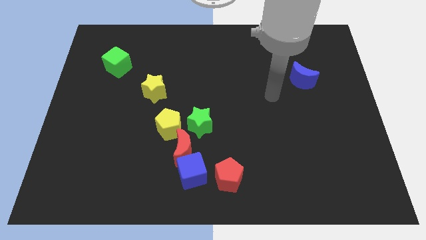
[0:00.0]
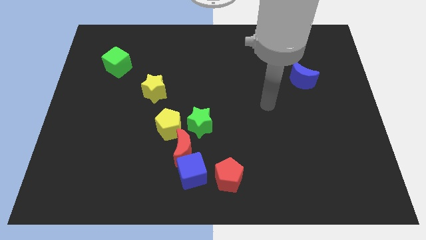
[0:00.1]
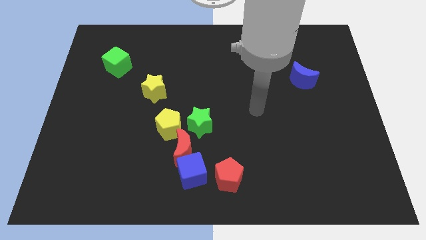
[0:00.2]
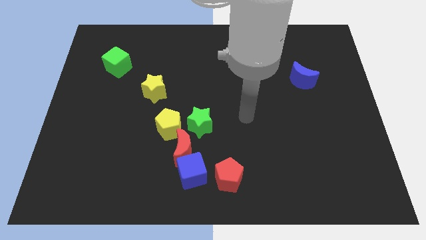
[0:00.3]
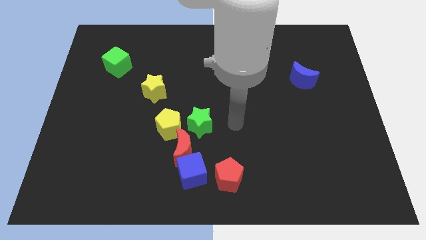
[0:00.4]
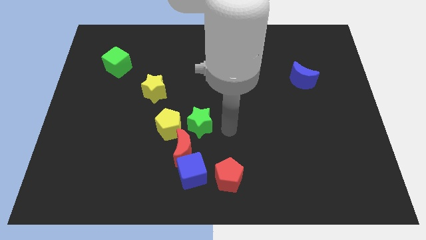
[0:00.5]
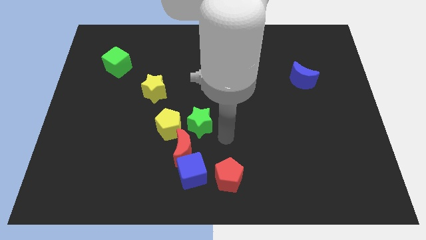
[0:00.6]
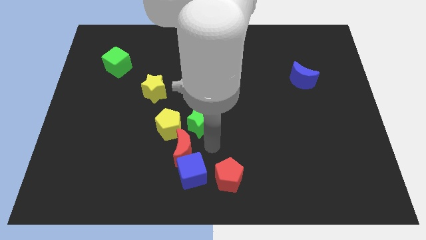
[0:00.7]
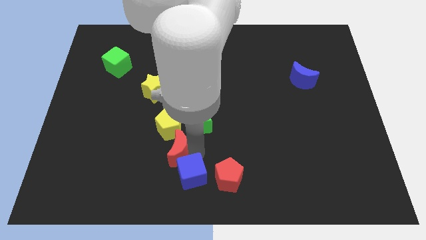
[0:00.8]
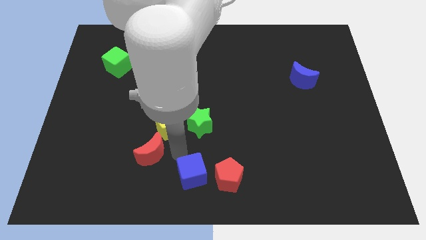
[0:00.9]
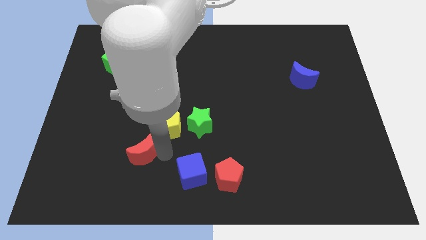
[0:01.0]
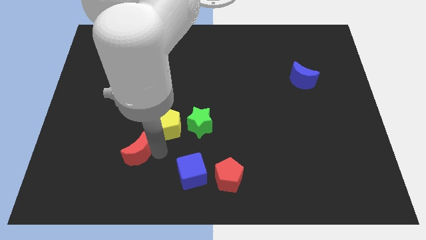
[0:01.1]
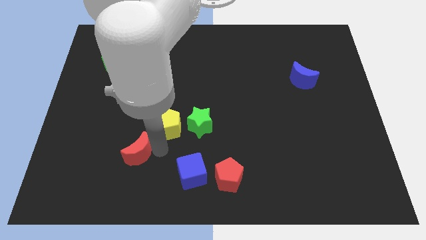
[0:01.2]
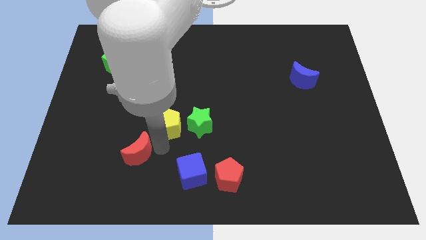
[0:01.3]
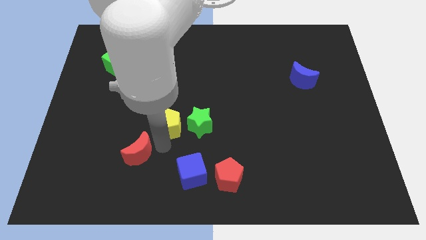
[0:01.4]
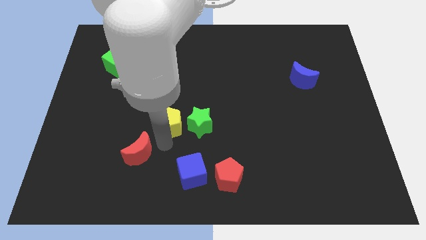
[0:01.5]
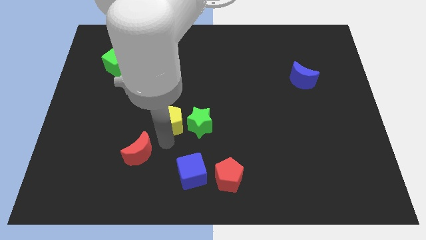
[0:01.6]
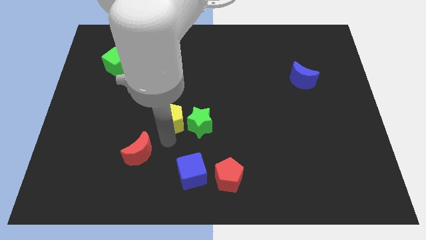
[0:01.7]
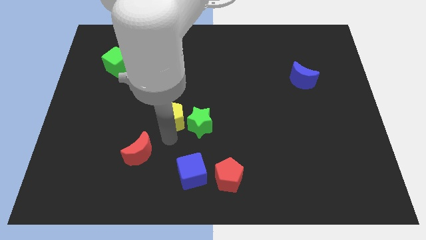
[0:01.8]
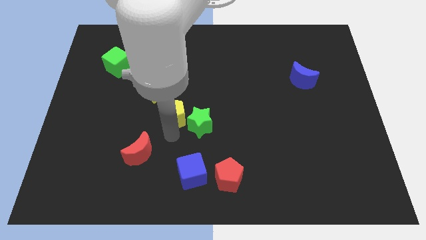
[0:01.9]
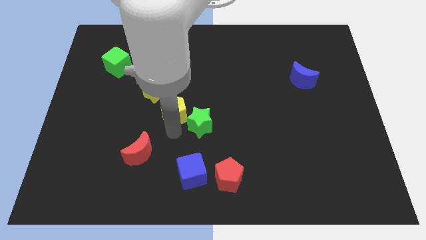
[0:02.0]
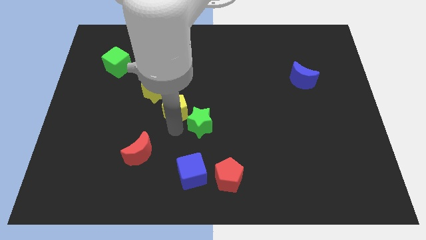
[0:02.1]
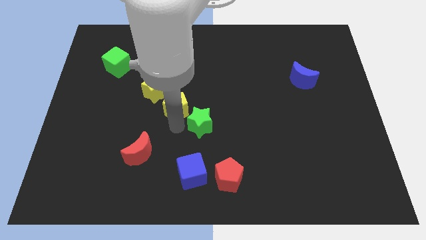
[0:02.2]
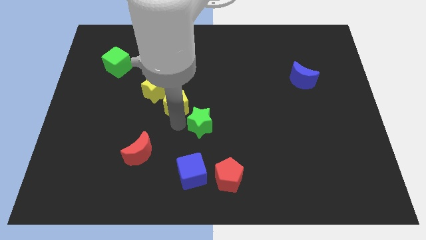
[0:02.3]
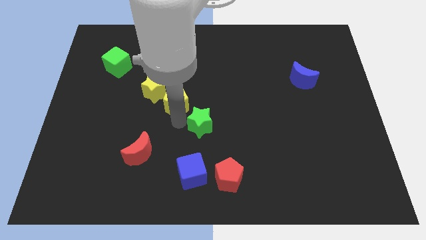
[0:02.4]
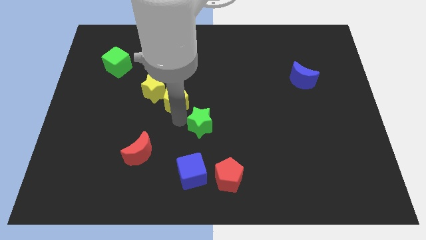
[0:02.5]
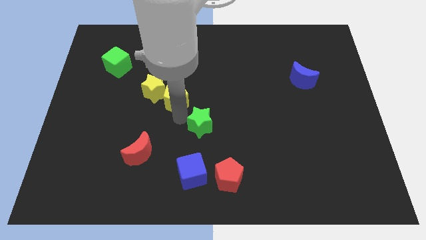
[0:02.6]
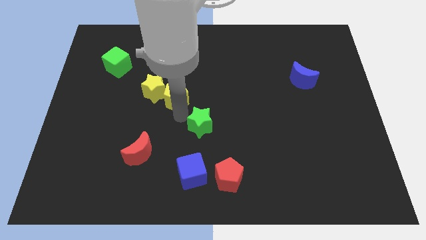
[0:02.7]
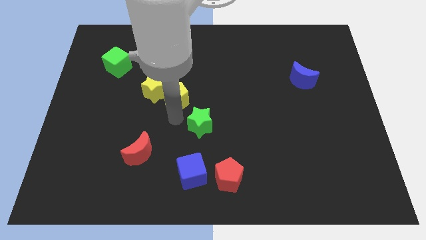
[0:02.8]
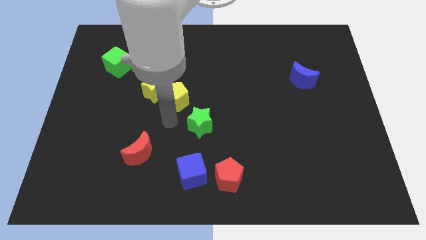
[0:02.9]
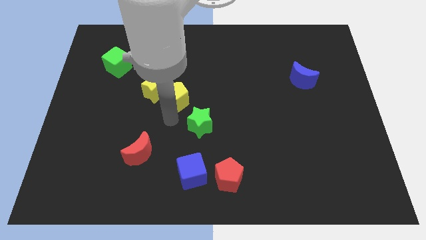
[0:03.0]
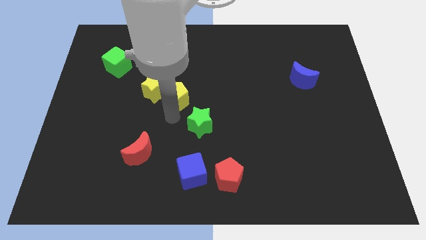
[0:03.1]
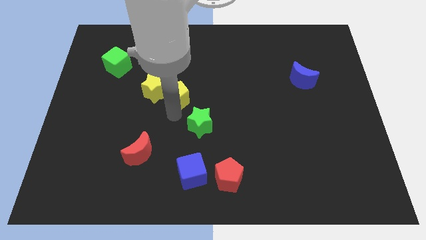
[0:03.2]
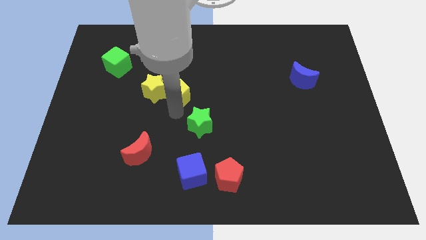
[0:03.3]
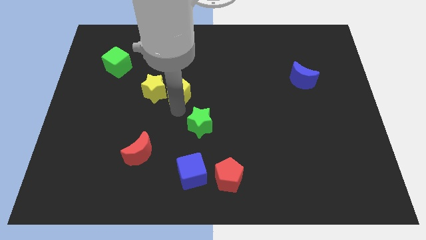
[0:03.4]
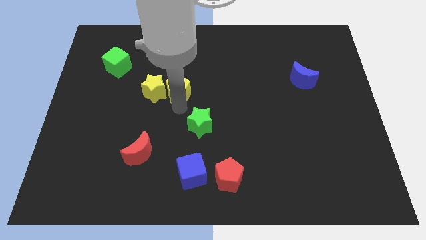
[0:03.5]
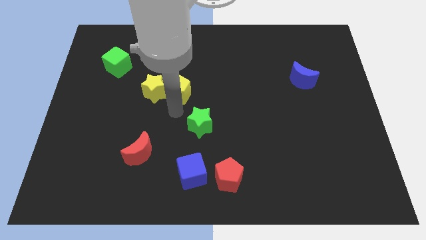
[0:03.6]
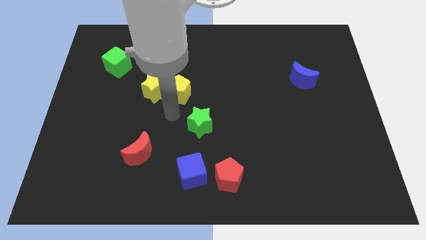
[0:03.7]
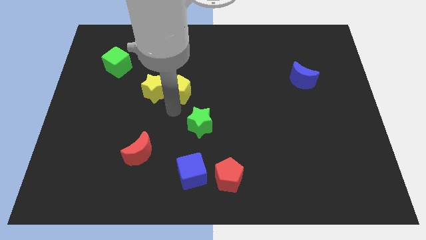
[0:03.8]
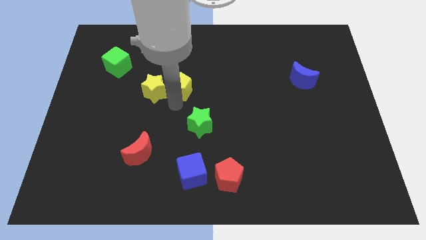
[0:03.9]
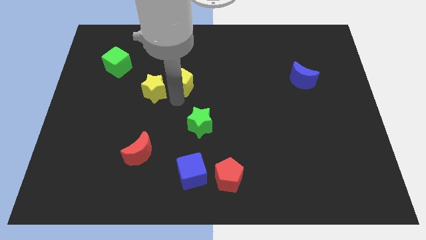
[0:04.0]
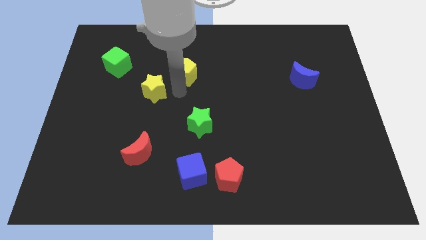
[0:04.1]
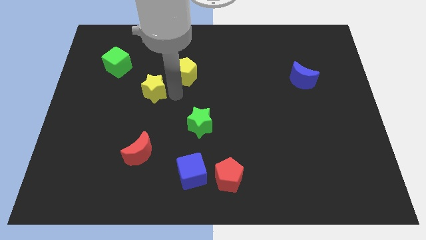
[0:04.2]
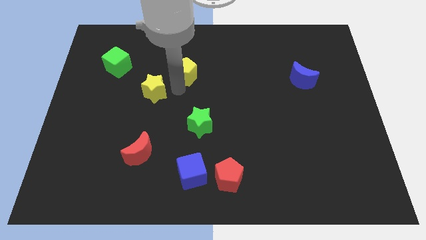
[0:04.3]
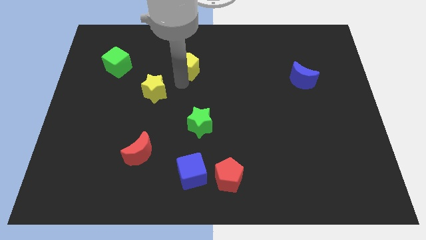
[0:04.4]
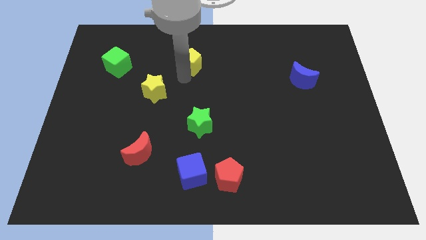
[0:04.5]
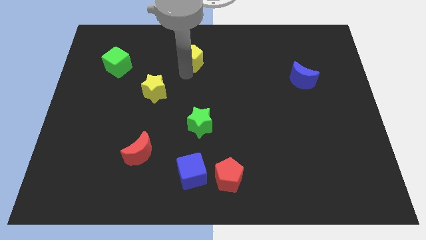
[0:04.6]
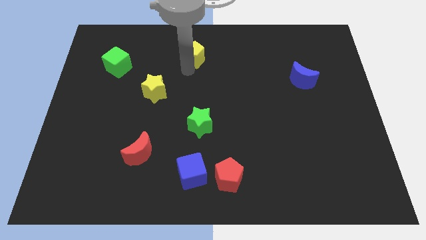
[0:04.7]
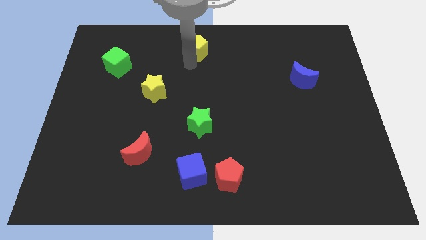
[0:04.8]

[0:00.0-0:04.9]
put the yellow pentagon to the top

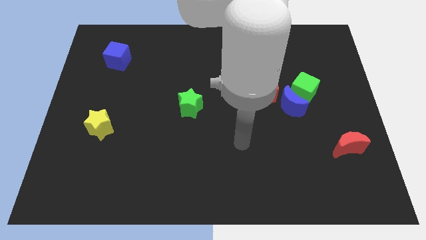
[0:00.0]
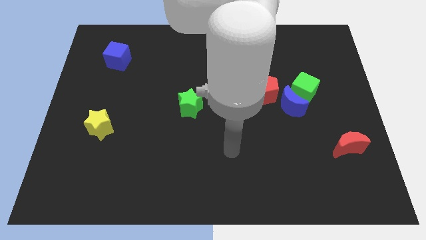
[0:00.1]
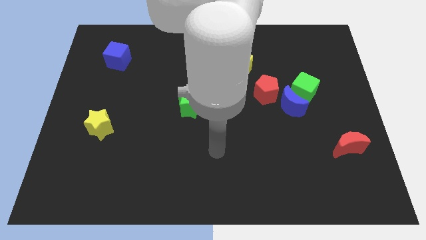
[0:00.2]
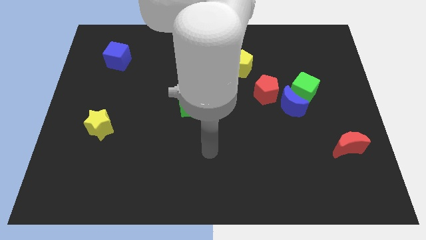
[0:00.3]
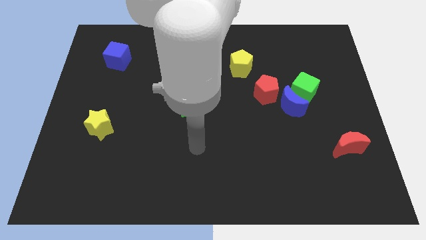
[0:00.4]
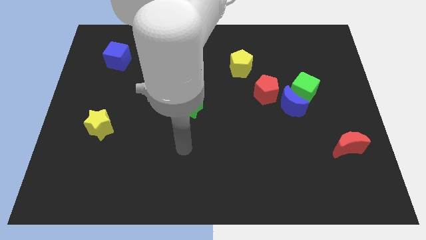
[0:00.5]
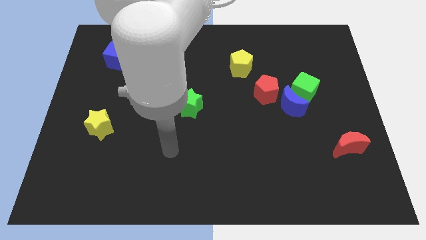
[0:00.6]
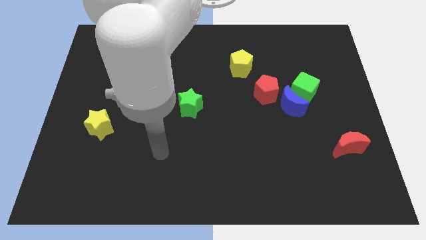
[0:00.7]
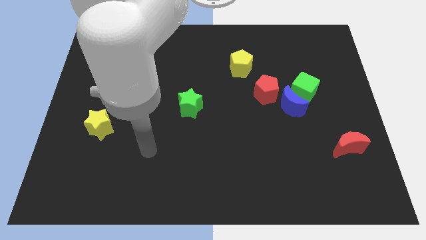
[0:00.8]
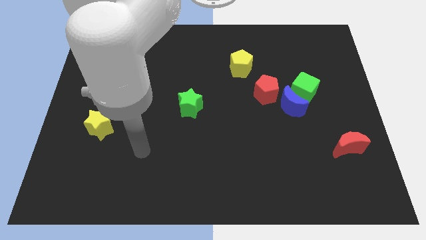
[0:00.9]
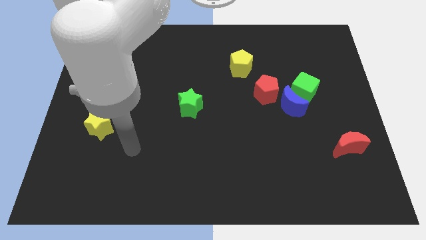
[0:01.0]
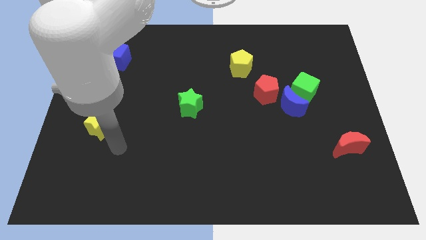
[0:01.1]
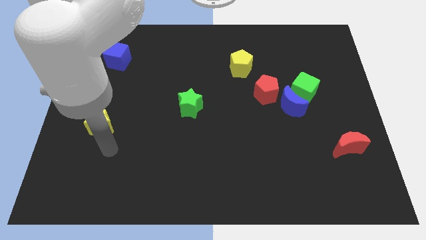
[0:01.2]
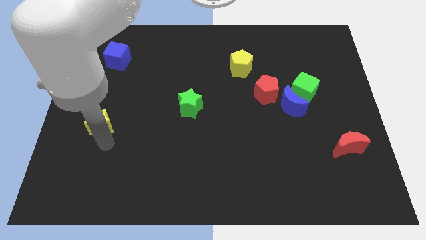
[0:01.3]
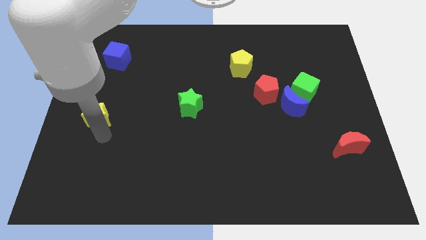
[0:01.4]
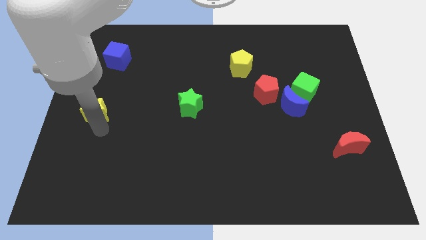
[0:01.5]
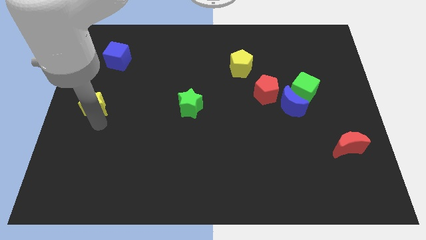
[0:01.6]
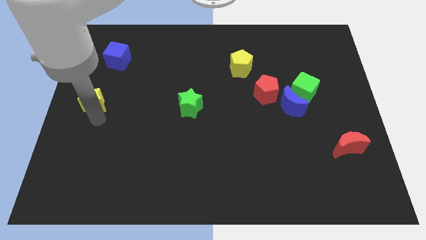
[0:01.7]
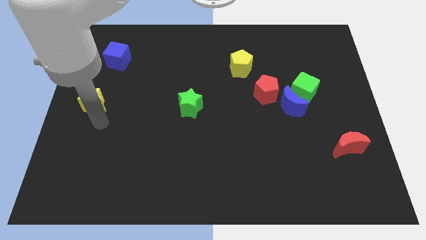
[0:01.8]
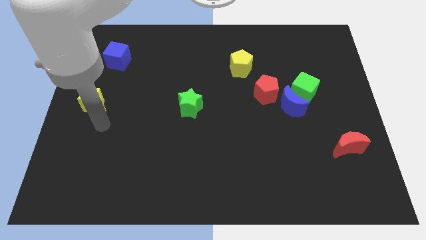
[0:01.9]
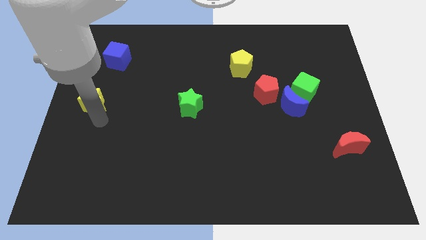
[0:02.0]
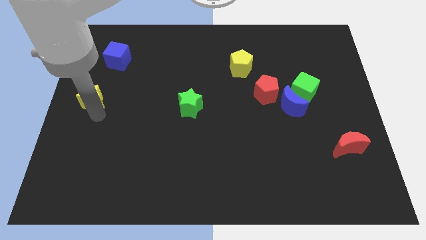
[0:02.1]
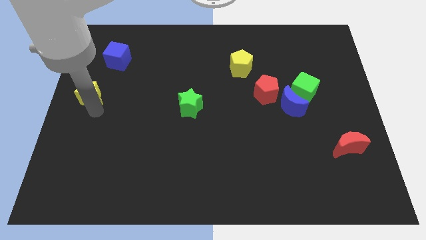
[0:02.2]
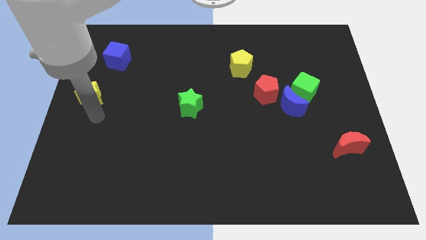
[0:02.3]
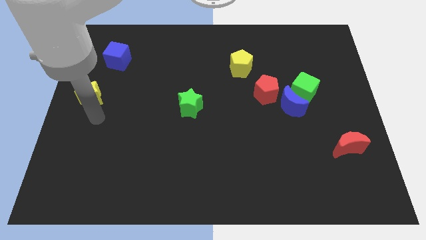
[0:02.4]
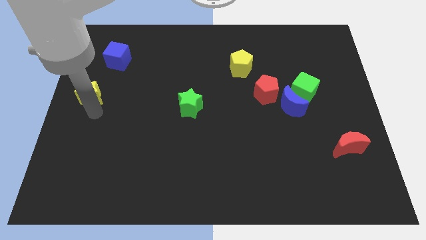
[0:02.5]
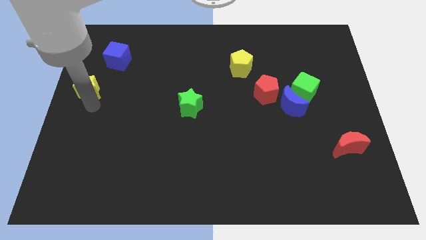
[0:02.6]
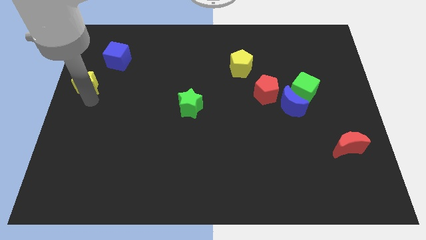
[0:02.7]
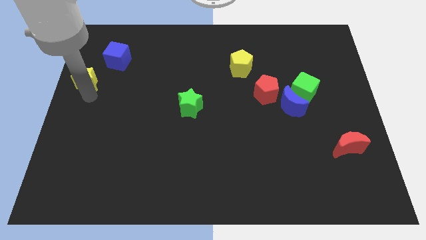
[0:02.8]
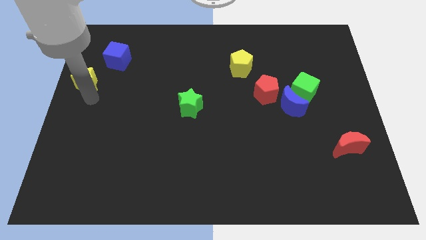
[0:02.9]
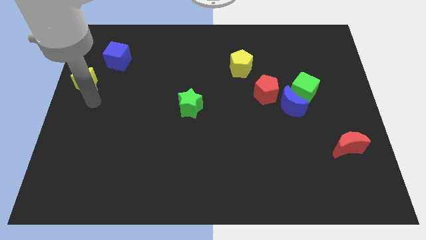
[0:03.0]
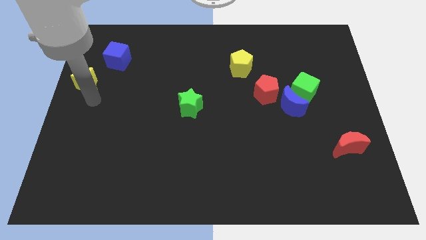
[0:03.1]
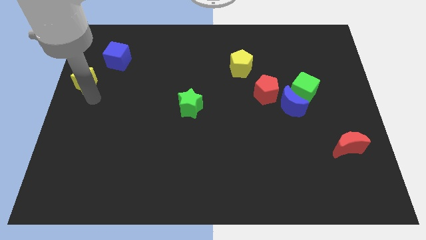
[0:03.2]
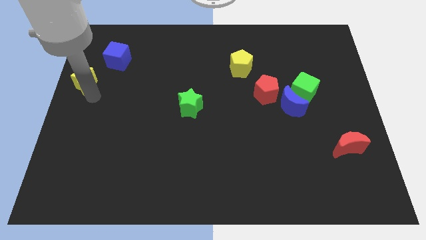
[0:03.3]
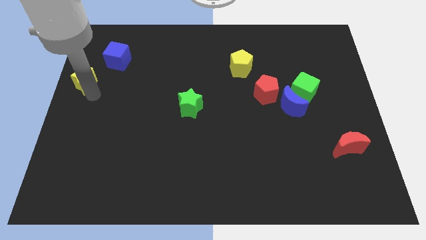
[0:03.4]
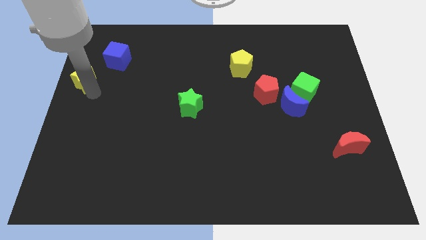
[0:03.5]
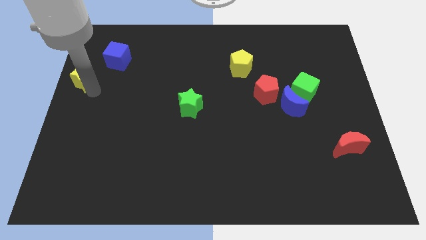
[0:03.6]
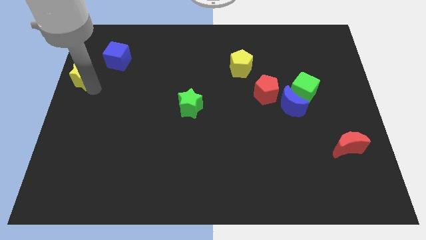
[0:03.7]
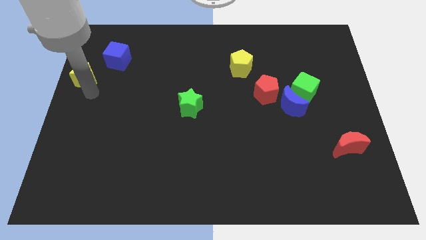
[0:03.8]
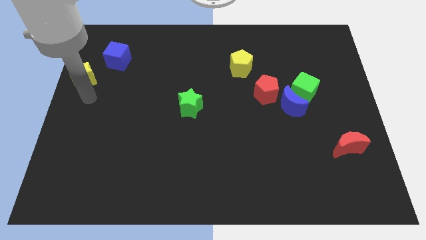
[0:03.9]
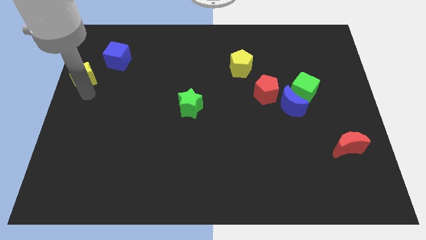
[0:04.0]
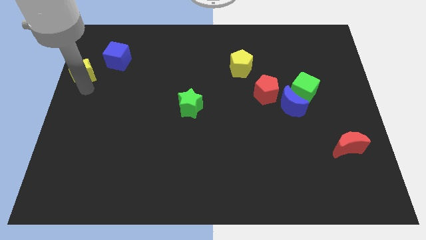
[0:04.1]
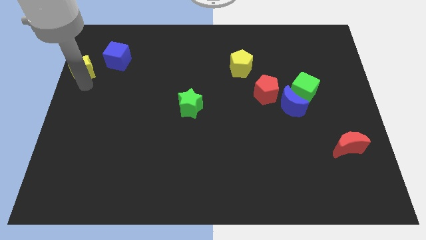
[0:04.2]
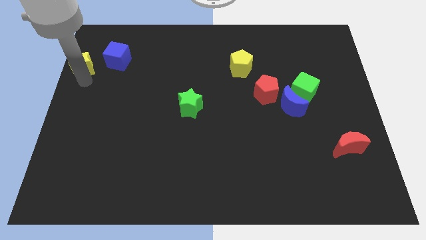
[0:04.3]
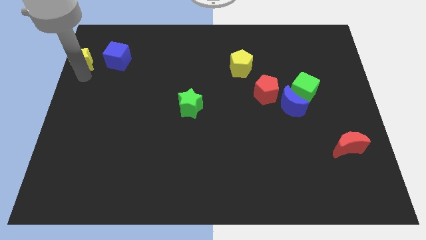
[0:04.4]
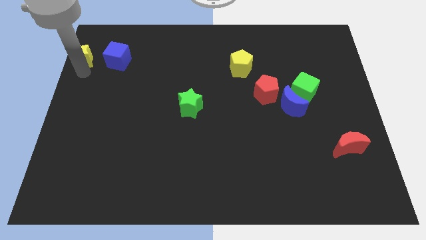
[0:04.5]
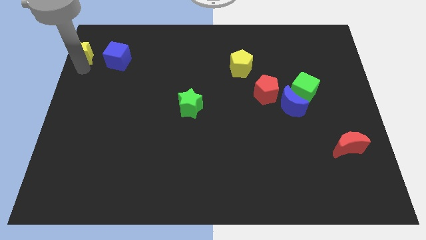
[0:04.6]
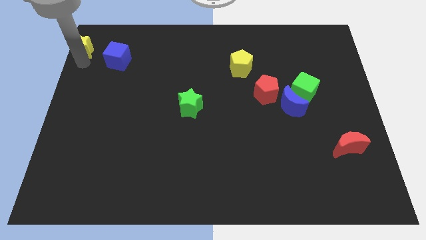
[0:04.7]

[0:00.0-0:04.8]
slide the yellow star to the top left of the board
